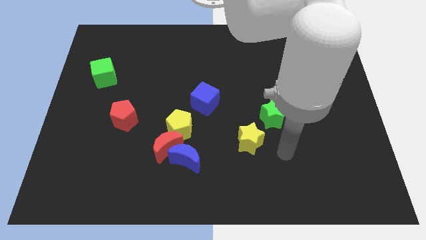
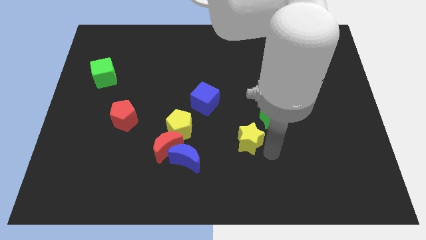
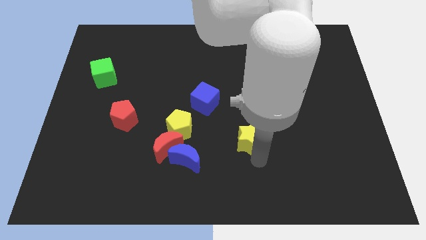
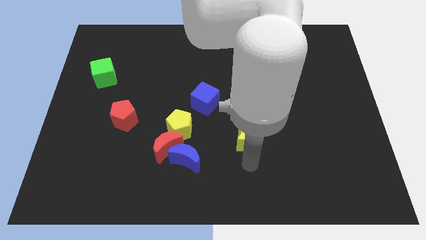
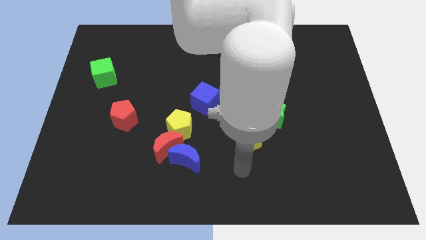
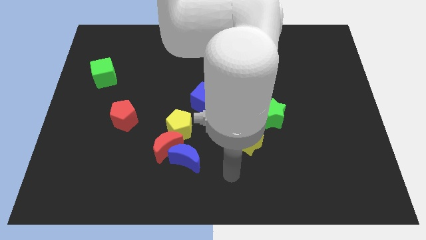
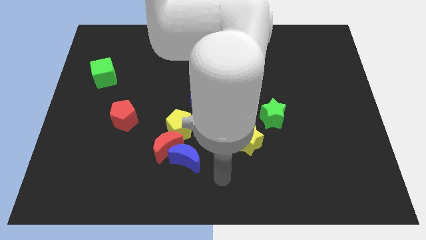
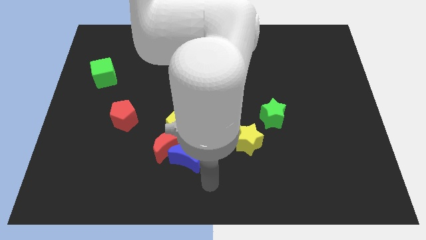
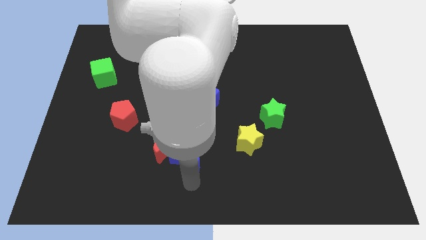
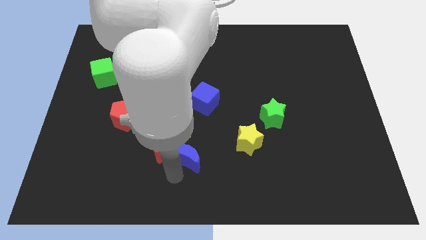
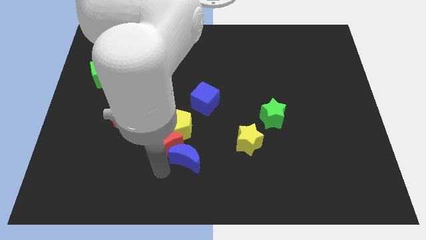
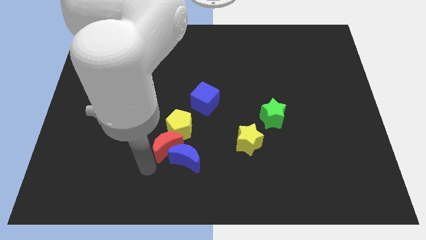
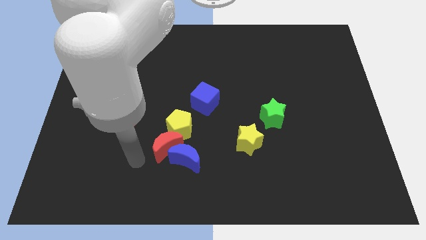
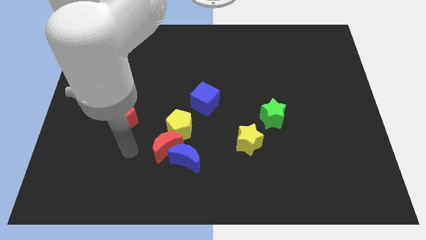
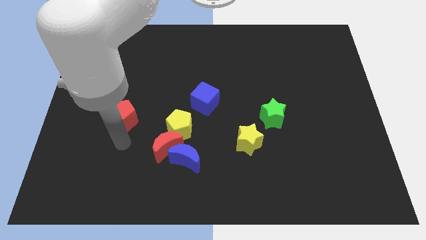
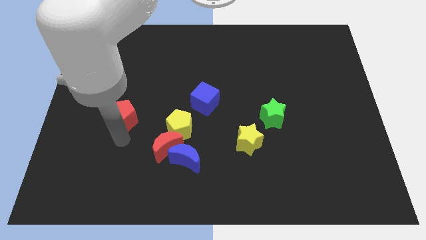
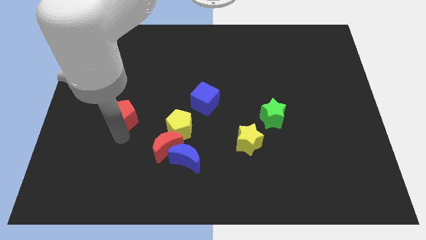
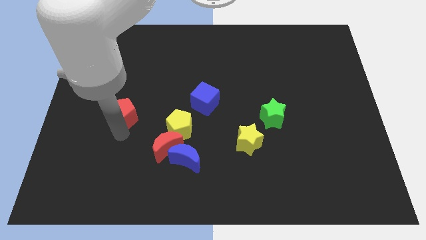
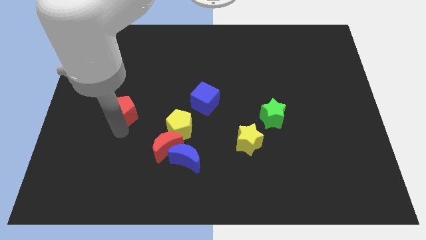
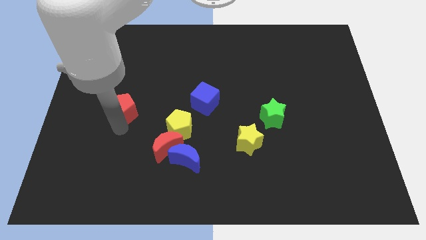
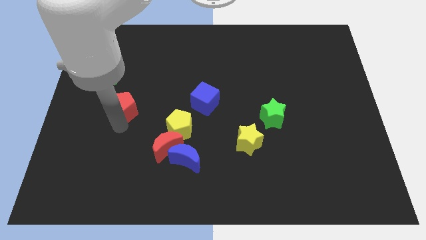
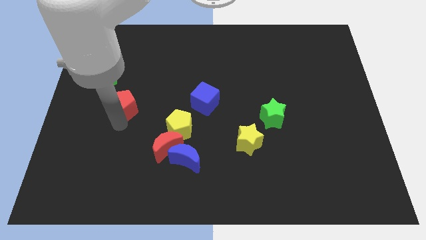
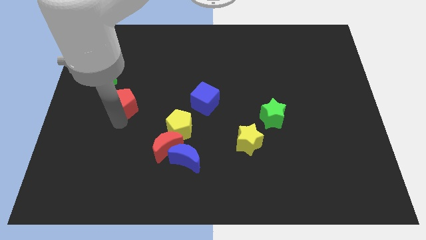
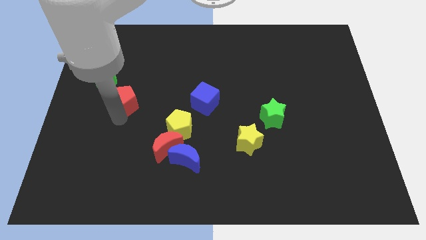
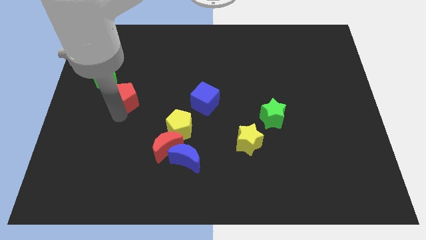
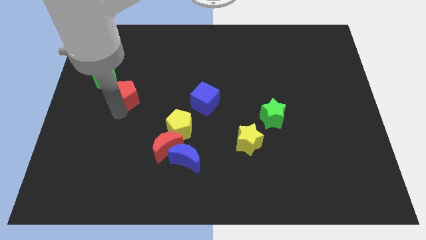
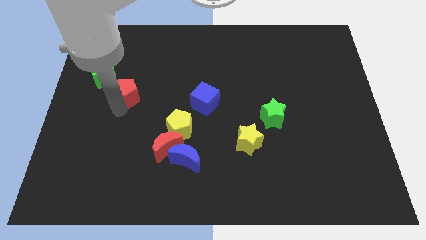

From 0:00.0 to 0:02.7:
move the red pentagon up slightly

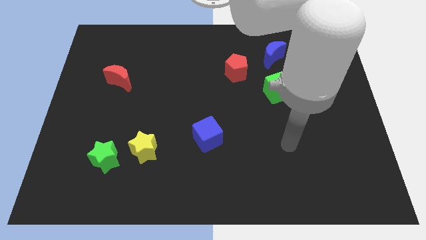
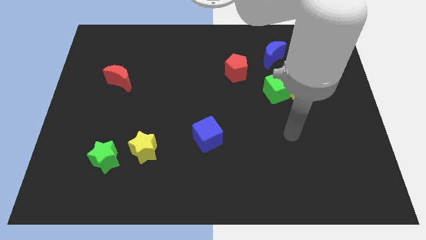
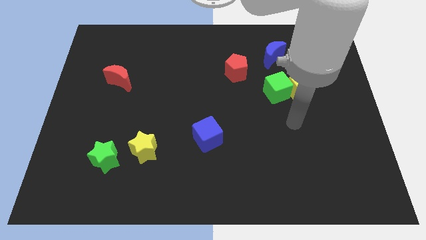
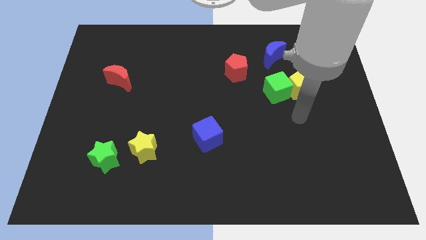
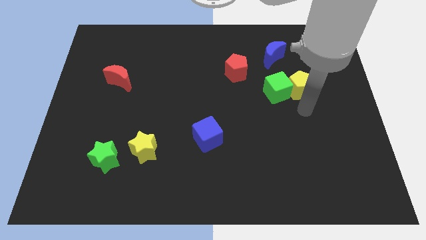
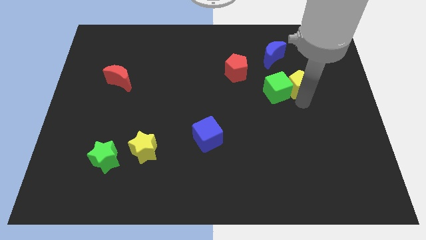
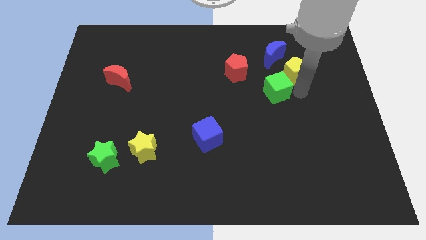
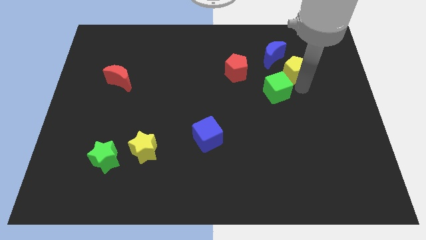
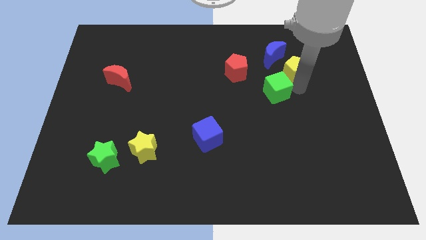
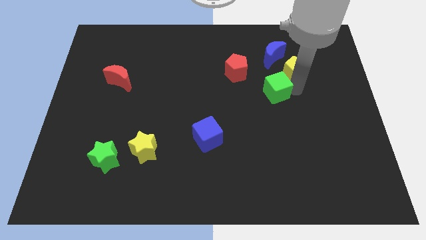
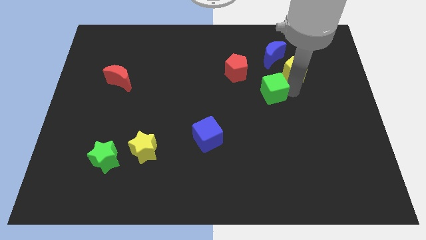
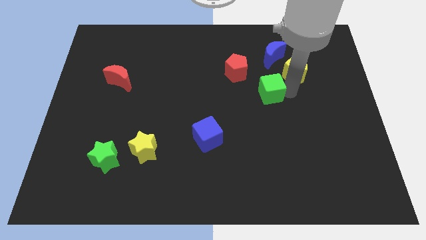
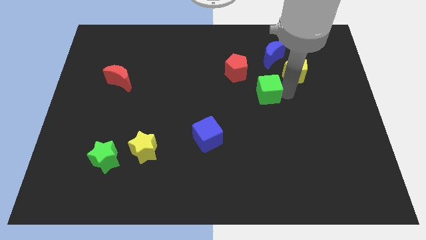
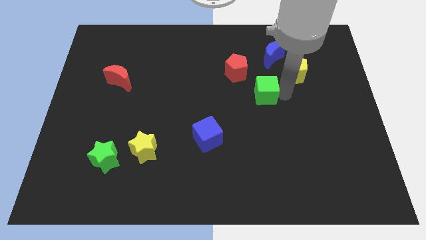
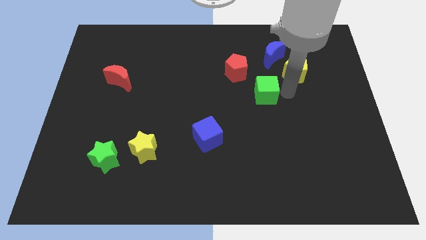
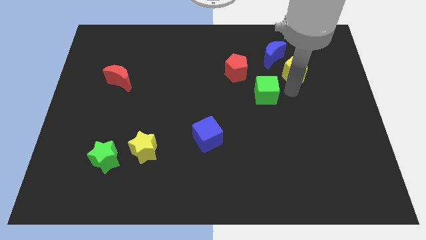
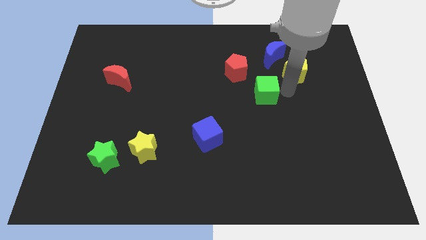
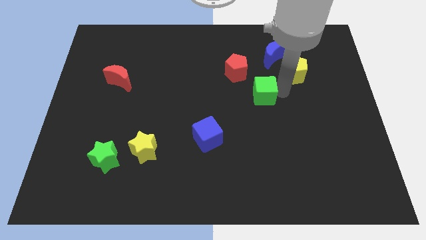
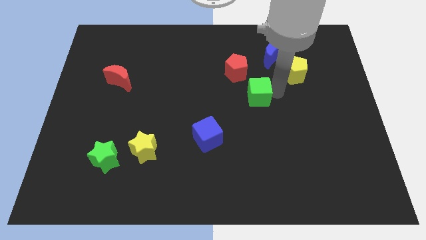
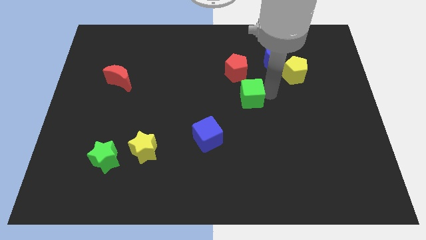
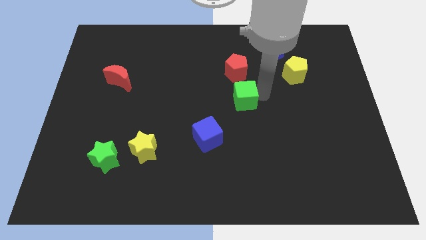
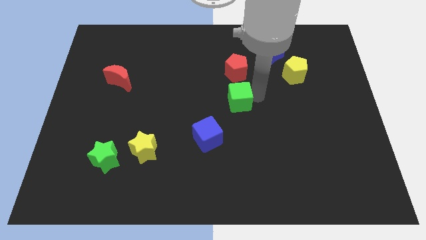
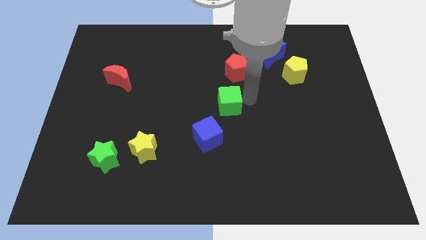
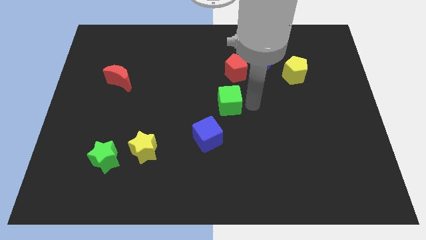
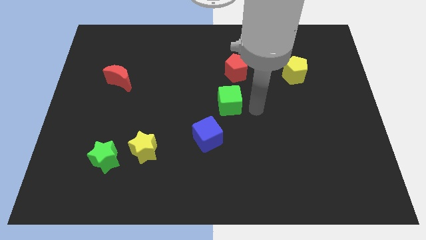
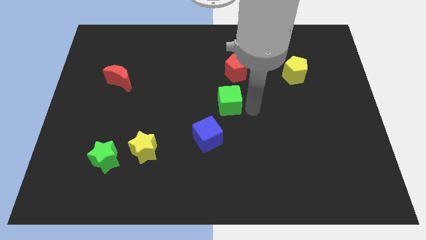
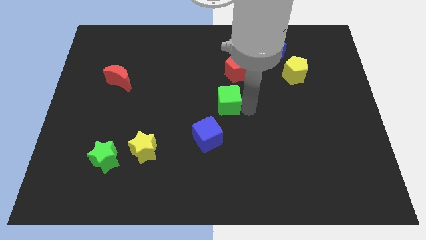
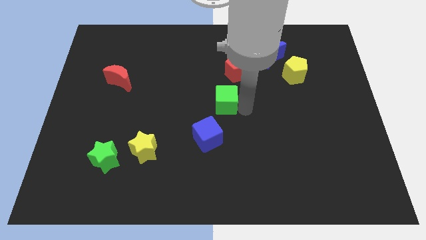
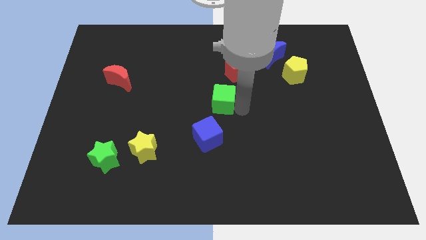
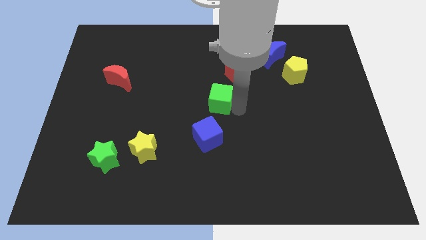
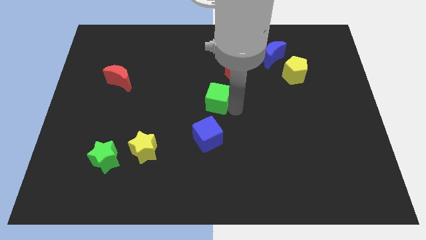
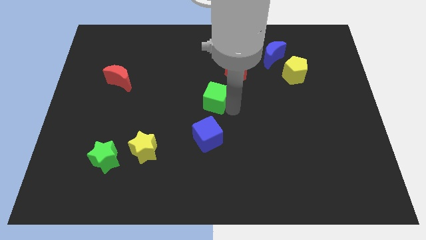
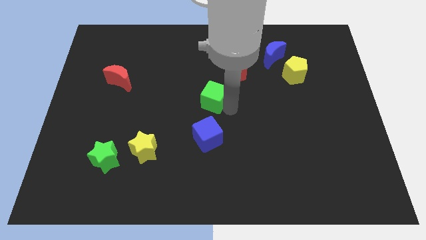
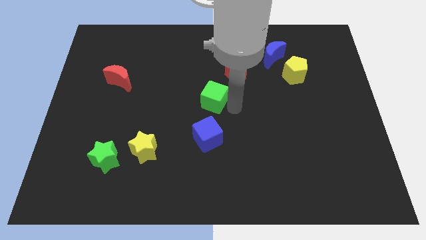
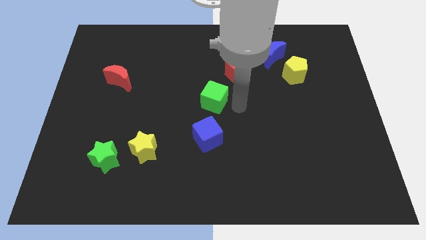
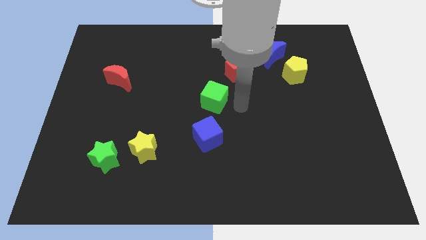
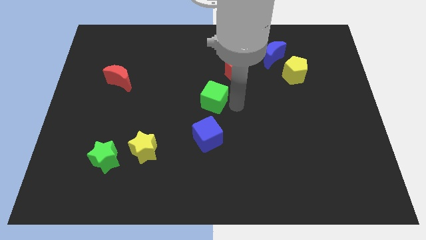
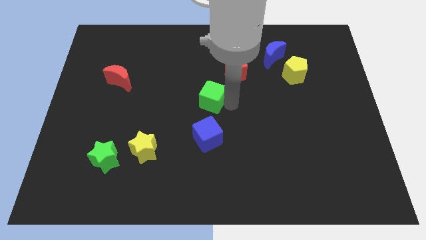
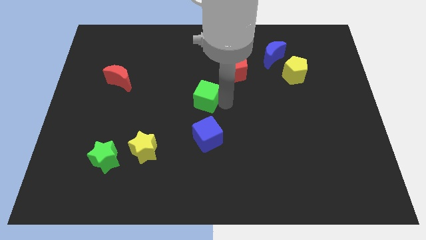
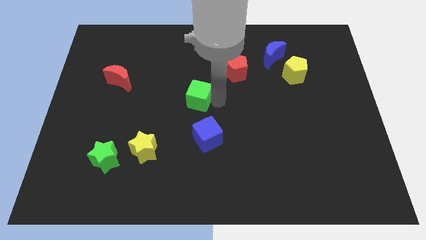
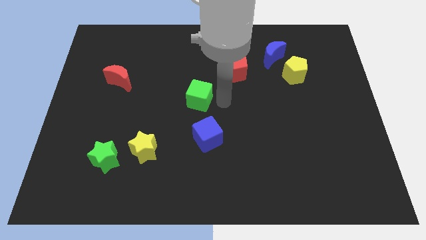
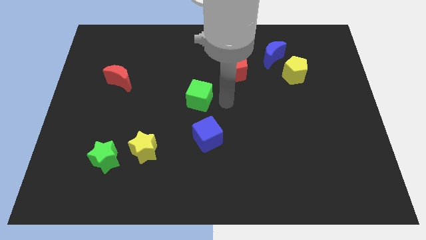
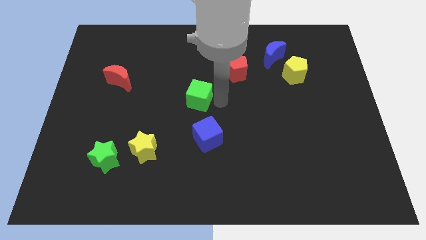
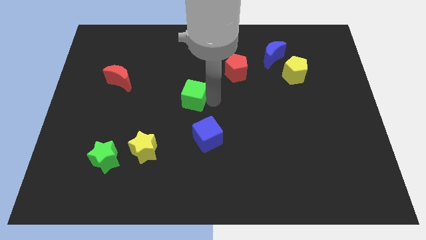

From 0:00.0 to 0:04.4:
slide the green cube to the left

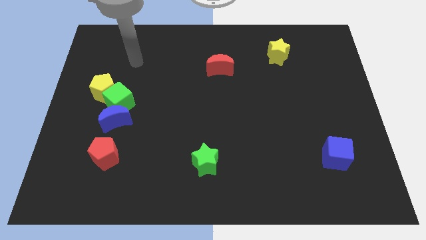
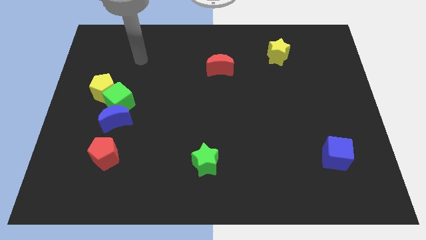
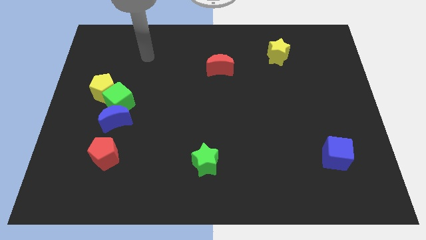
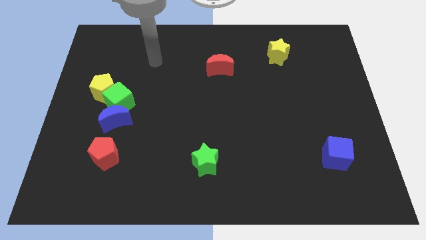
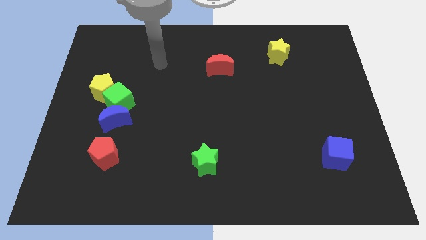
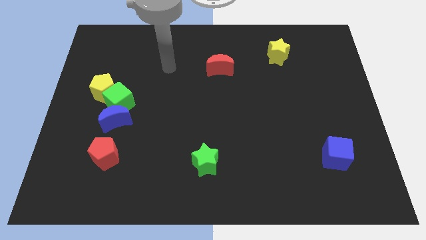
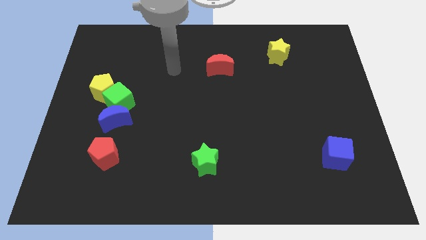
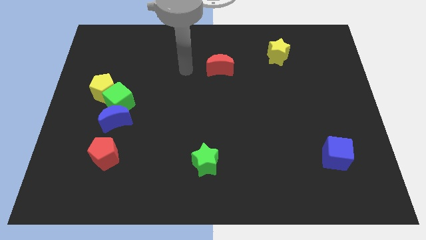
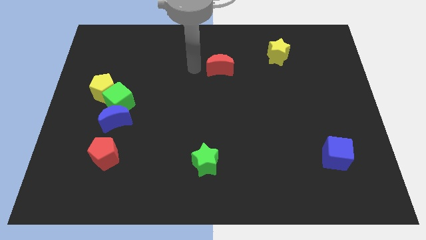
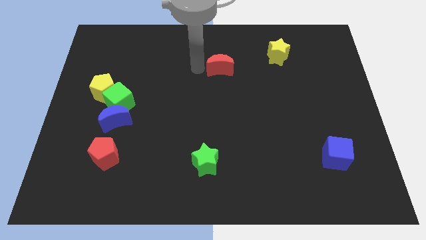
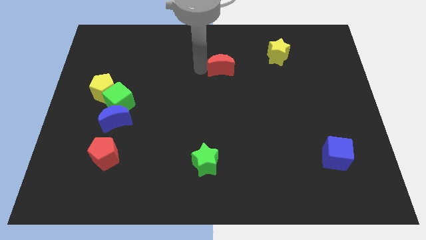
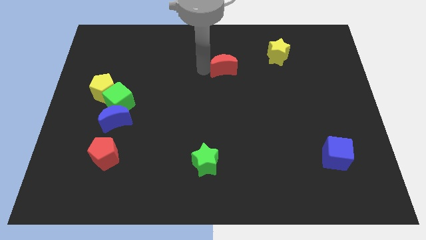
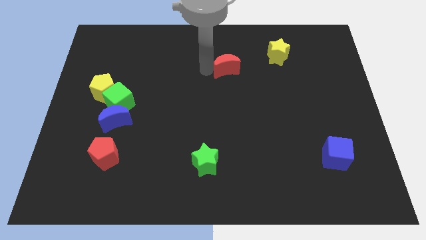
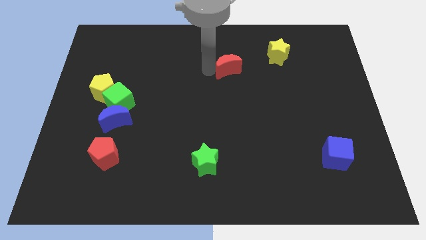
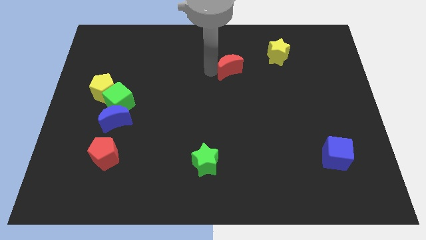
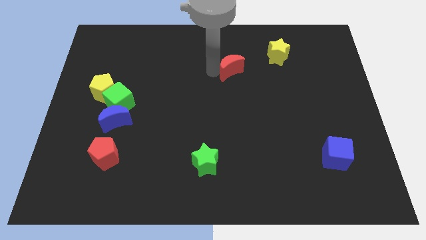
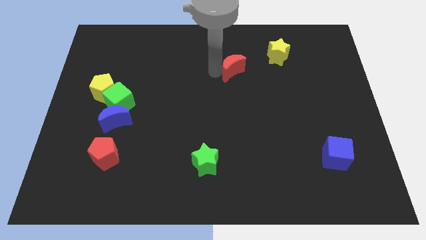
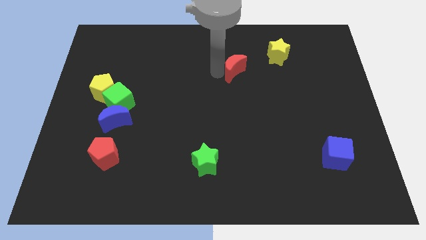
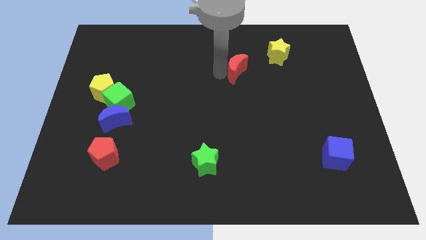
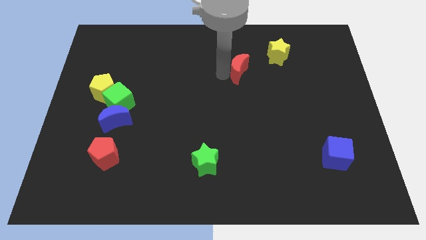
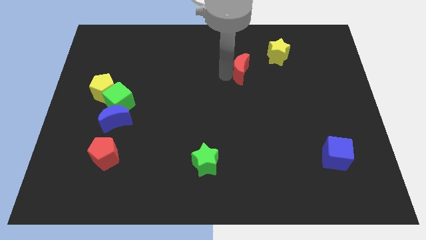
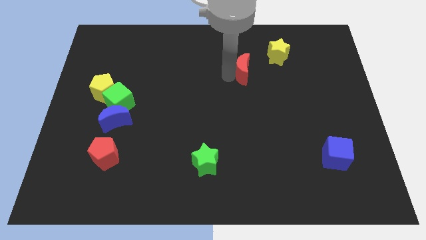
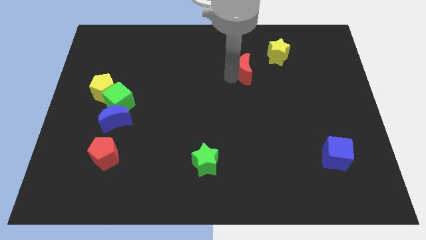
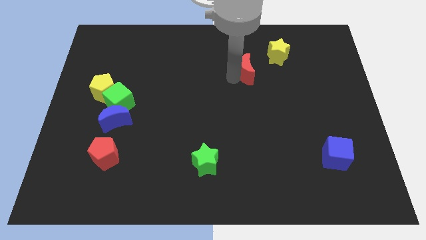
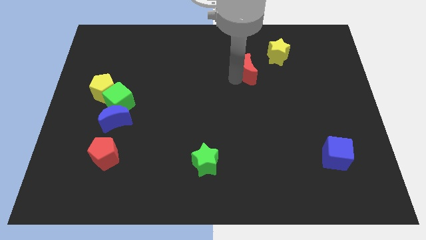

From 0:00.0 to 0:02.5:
slide the red moon right a little bit
